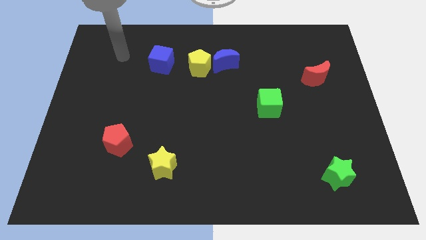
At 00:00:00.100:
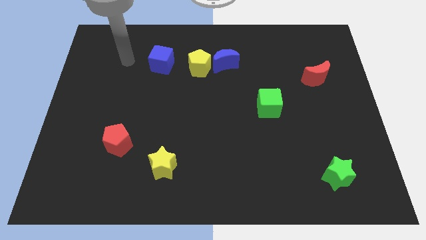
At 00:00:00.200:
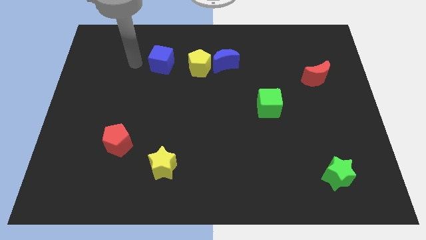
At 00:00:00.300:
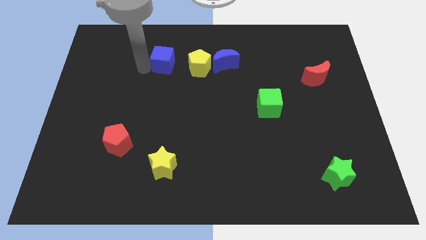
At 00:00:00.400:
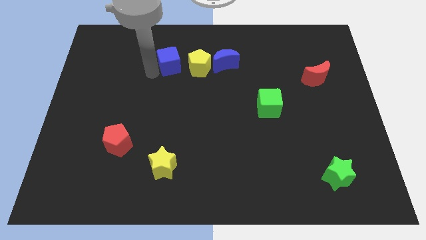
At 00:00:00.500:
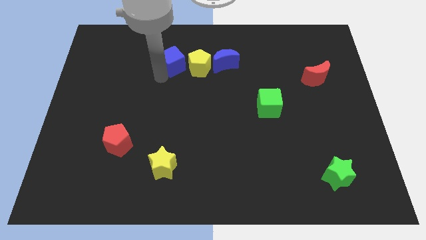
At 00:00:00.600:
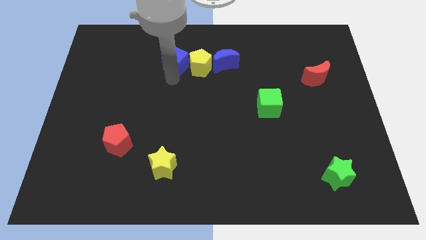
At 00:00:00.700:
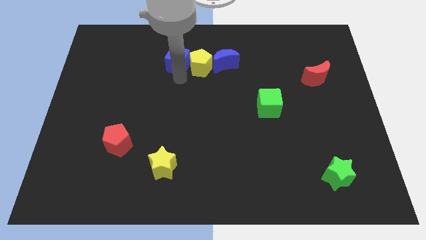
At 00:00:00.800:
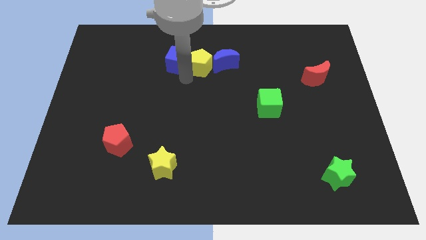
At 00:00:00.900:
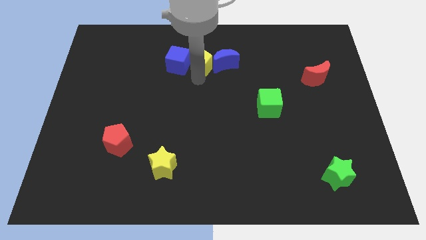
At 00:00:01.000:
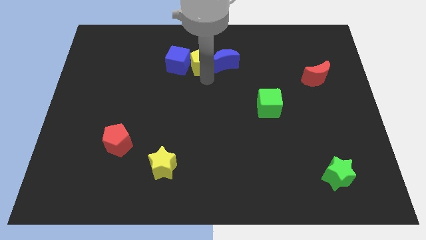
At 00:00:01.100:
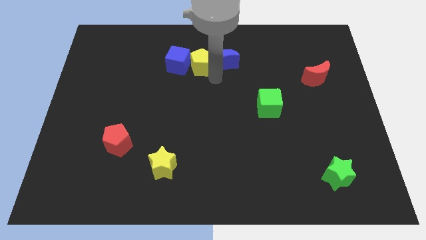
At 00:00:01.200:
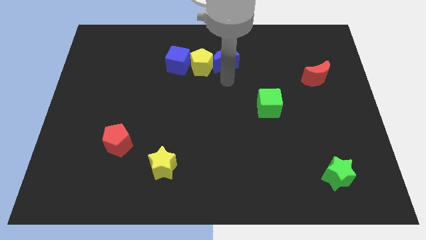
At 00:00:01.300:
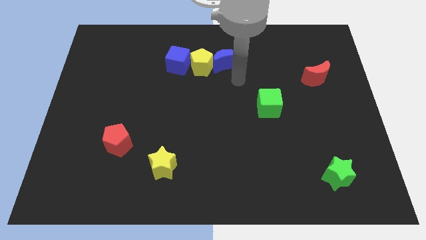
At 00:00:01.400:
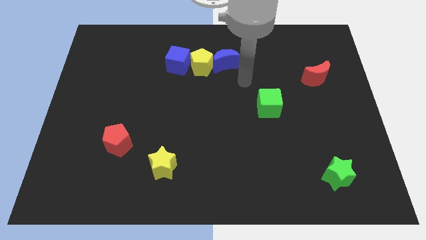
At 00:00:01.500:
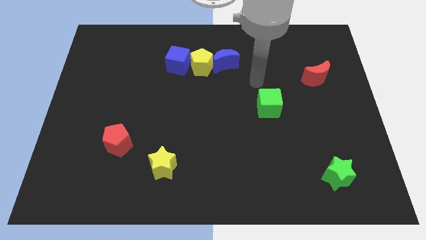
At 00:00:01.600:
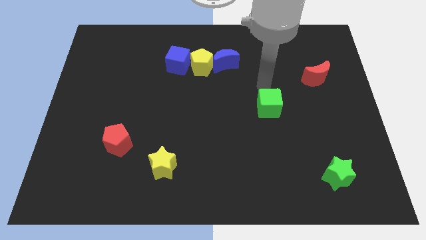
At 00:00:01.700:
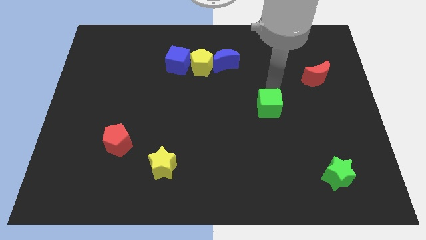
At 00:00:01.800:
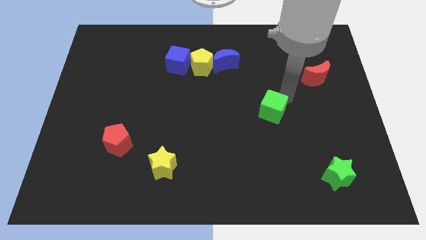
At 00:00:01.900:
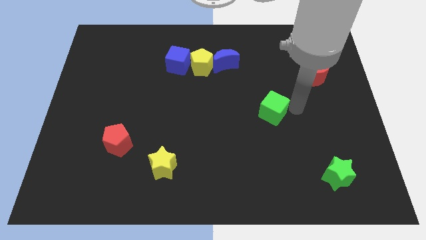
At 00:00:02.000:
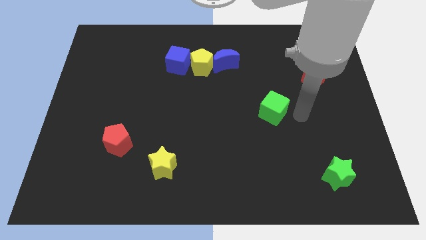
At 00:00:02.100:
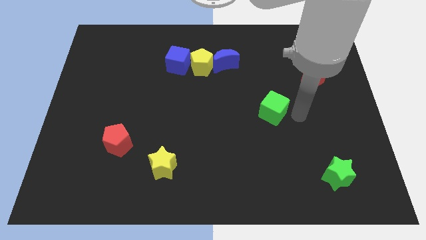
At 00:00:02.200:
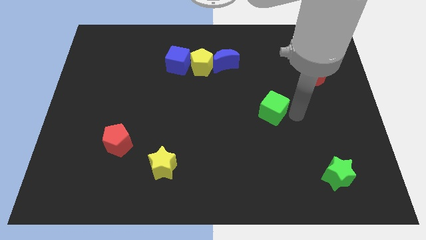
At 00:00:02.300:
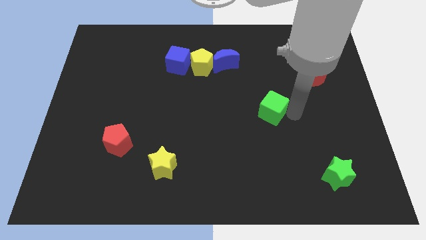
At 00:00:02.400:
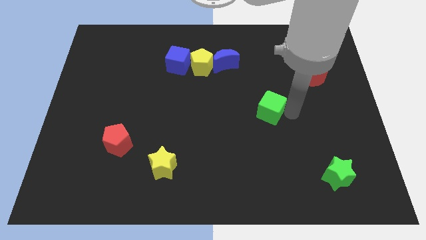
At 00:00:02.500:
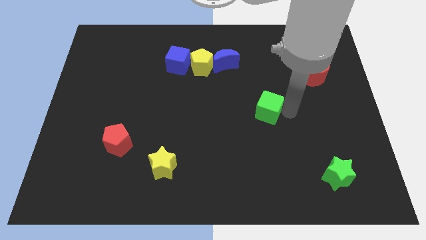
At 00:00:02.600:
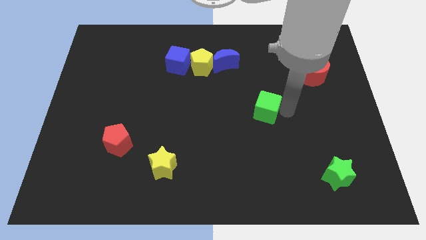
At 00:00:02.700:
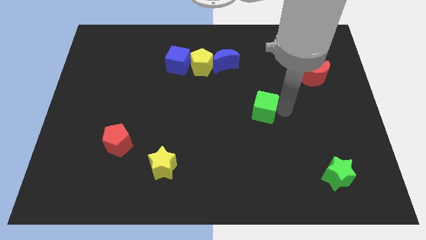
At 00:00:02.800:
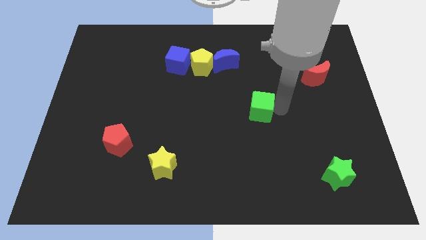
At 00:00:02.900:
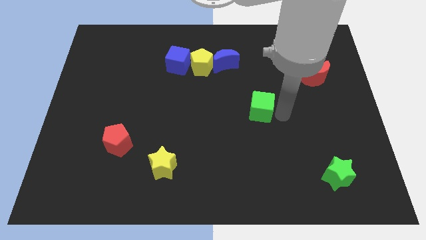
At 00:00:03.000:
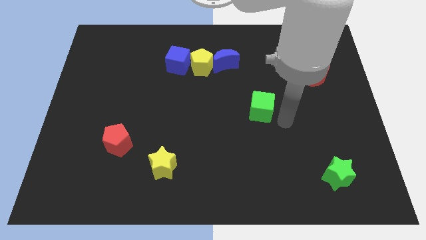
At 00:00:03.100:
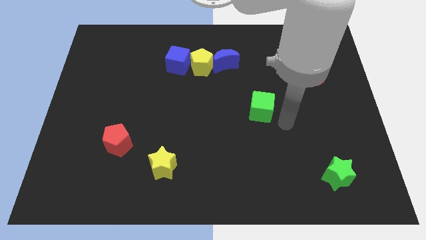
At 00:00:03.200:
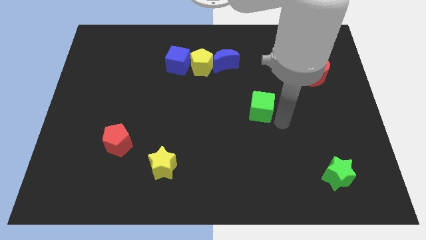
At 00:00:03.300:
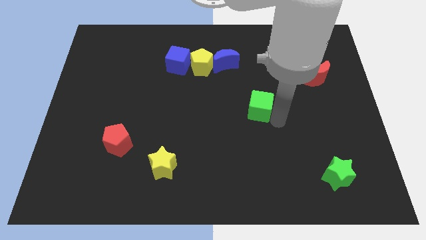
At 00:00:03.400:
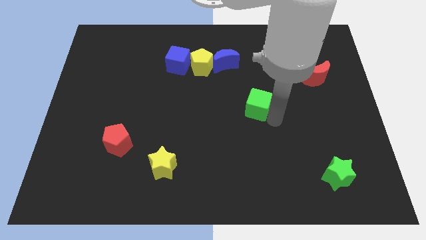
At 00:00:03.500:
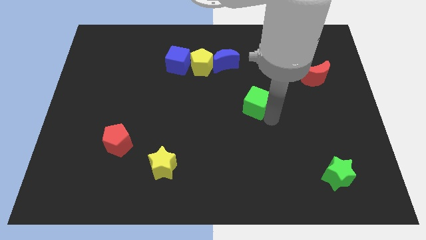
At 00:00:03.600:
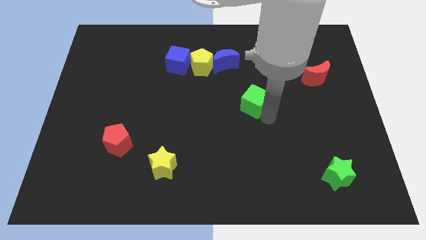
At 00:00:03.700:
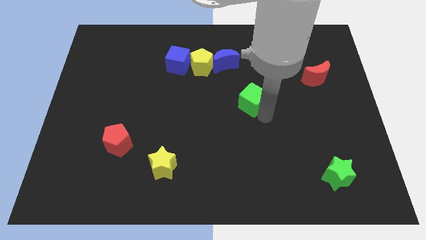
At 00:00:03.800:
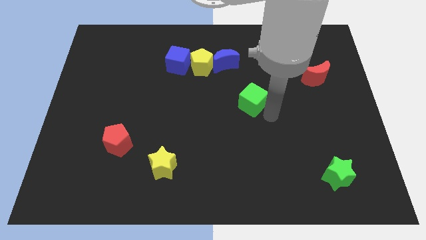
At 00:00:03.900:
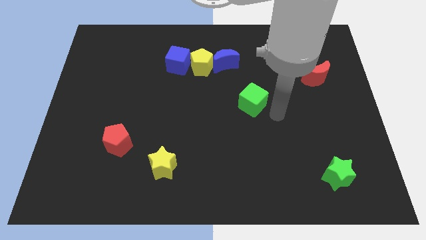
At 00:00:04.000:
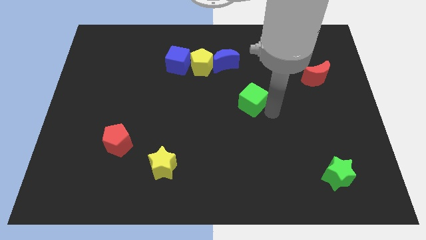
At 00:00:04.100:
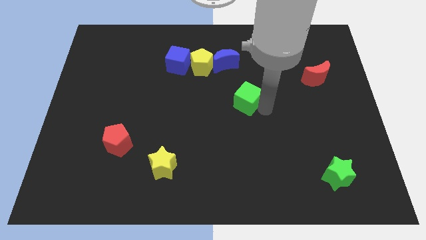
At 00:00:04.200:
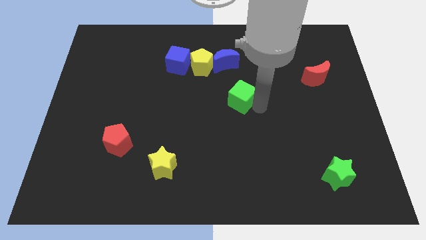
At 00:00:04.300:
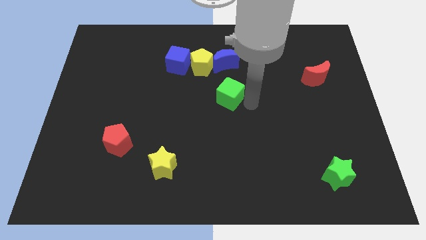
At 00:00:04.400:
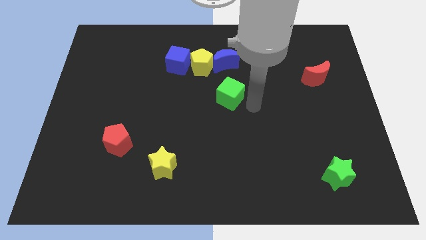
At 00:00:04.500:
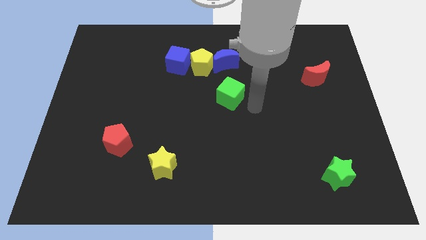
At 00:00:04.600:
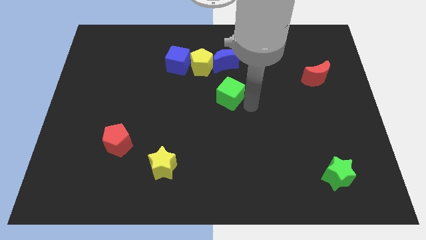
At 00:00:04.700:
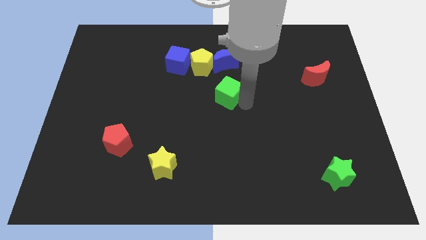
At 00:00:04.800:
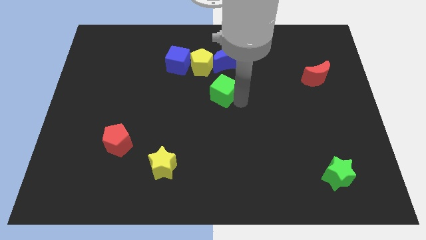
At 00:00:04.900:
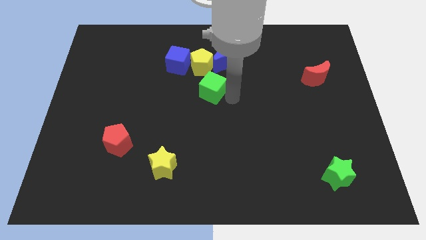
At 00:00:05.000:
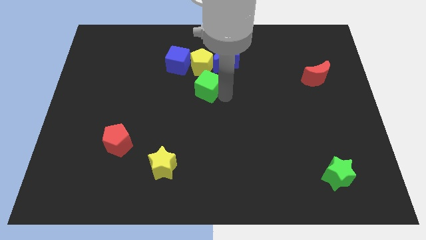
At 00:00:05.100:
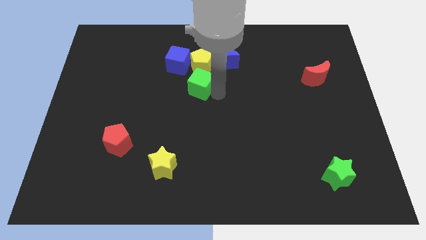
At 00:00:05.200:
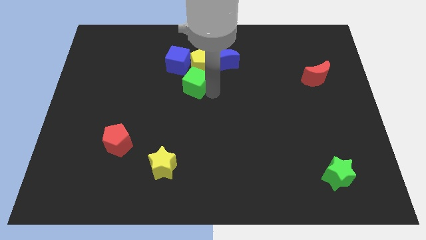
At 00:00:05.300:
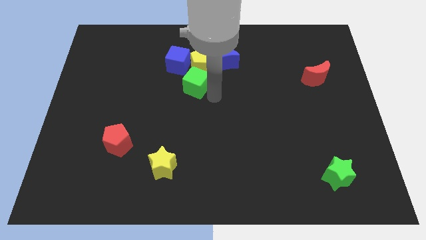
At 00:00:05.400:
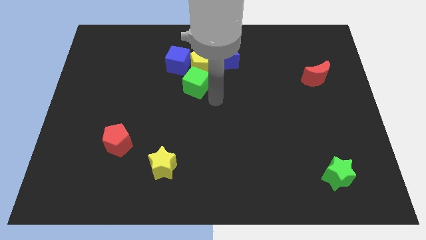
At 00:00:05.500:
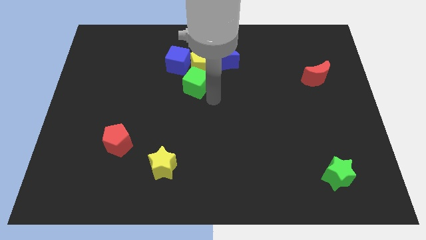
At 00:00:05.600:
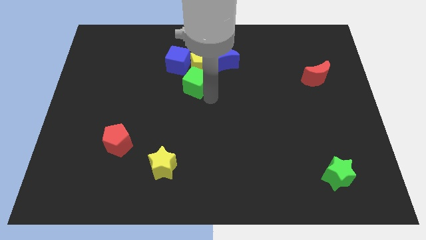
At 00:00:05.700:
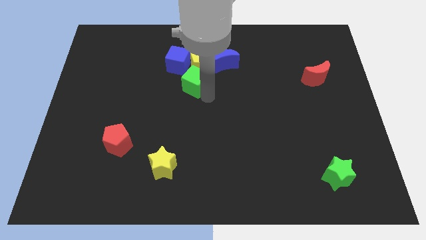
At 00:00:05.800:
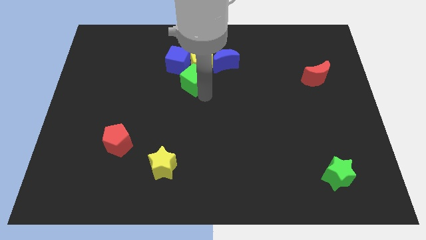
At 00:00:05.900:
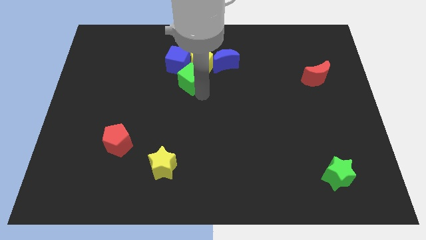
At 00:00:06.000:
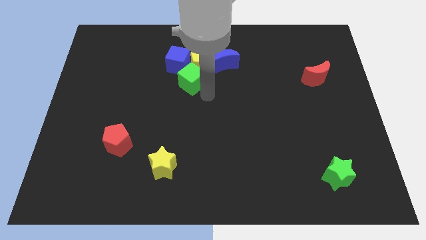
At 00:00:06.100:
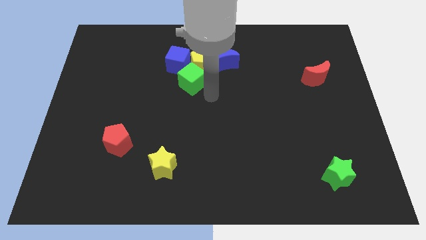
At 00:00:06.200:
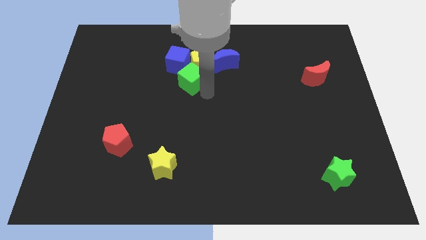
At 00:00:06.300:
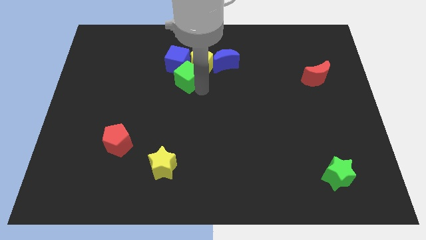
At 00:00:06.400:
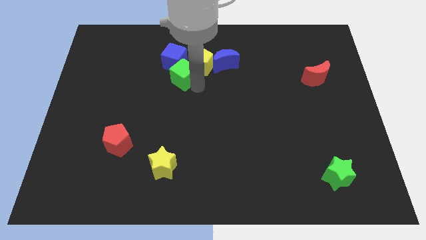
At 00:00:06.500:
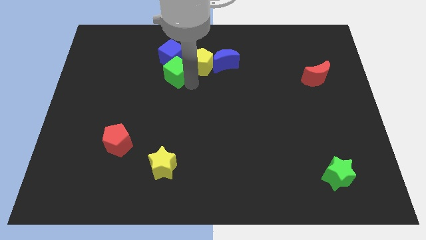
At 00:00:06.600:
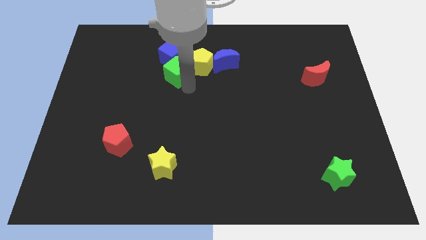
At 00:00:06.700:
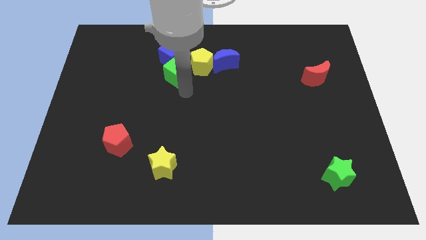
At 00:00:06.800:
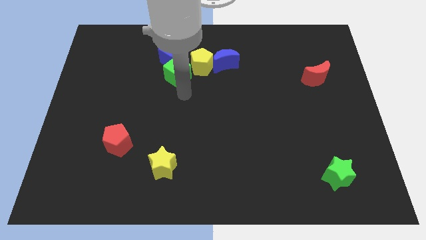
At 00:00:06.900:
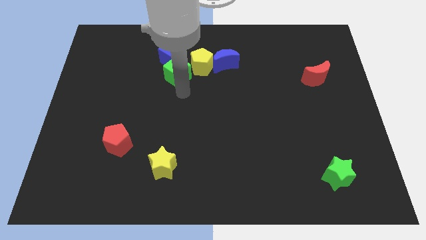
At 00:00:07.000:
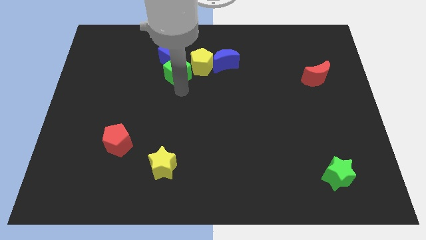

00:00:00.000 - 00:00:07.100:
push the green cube next to the blue cube
